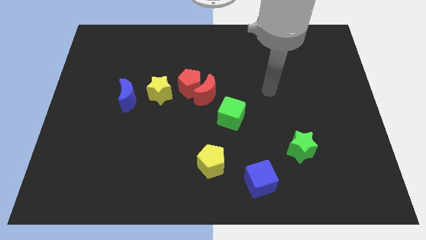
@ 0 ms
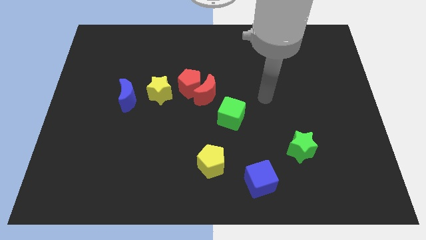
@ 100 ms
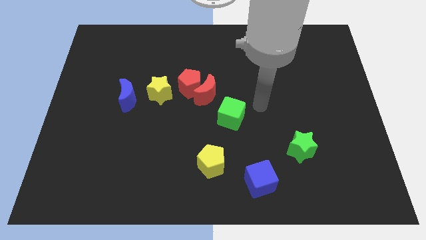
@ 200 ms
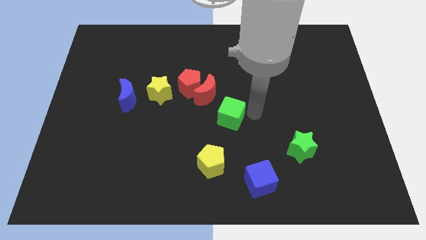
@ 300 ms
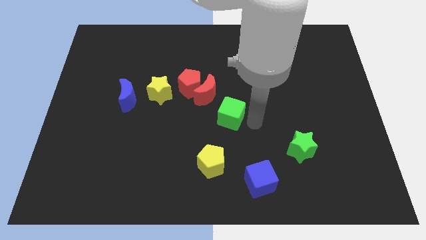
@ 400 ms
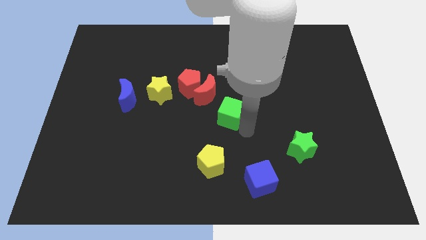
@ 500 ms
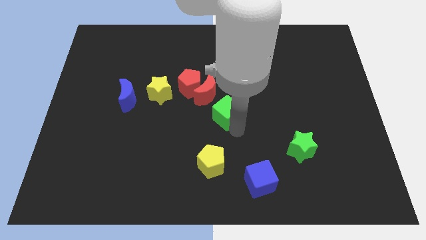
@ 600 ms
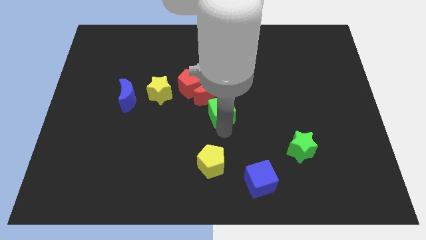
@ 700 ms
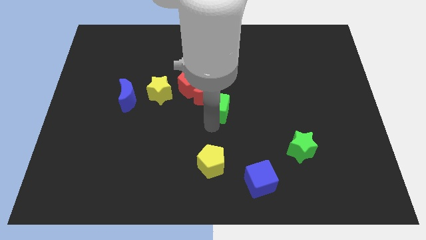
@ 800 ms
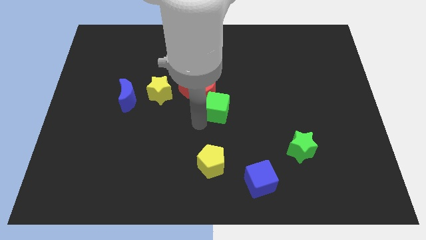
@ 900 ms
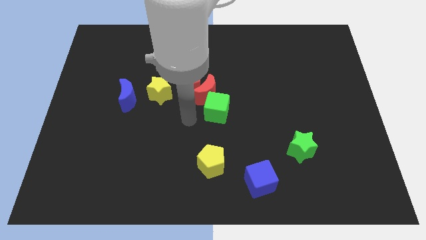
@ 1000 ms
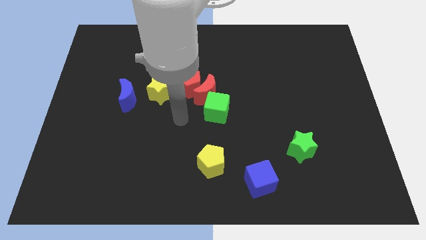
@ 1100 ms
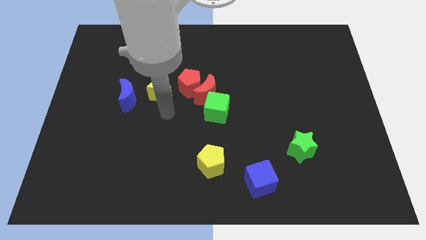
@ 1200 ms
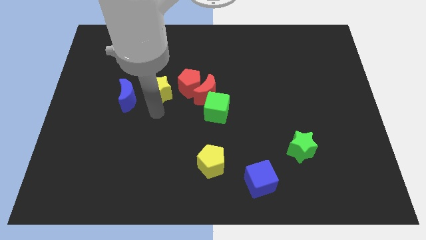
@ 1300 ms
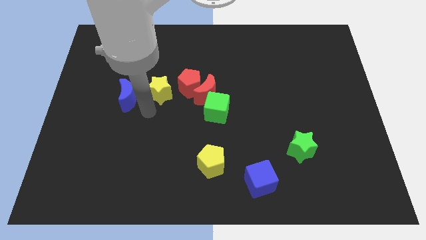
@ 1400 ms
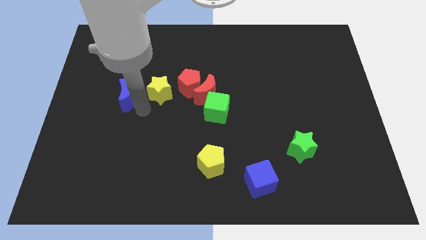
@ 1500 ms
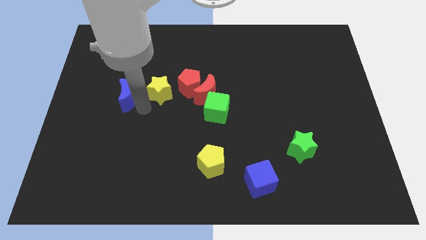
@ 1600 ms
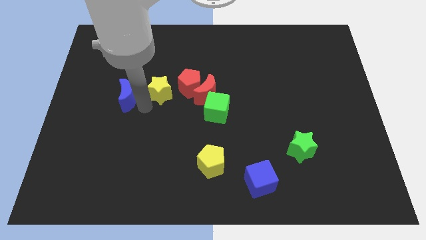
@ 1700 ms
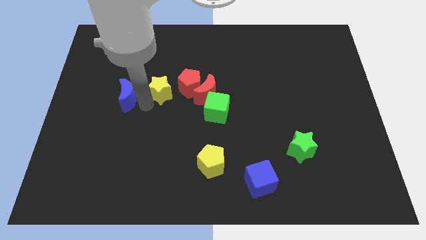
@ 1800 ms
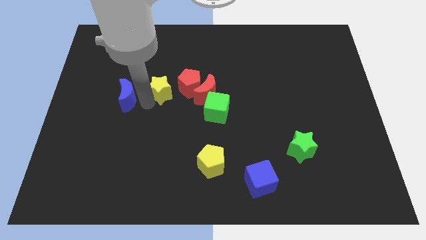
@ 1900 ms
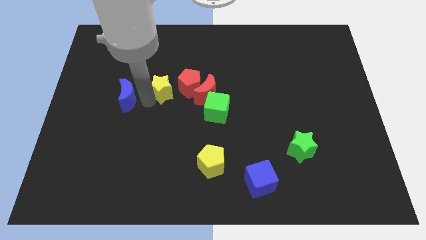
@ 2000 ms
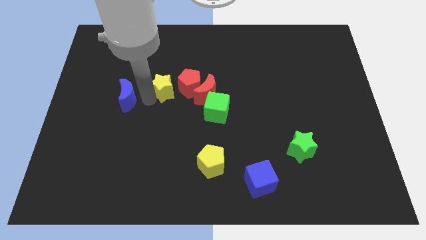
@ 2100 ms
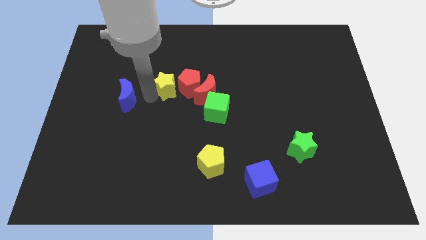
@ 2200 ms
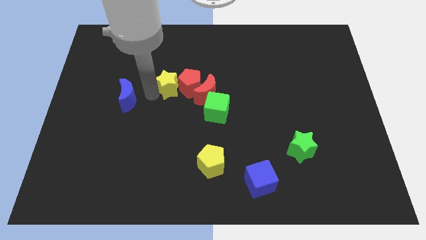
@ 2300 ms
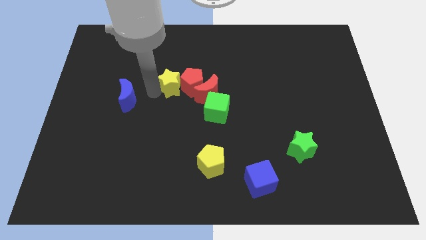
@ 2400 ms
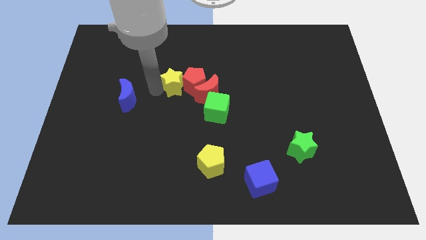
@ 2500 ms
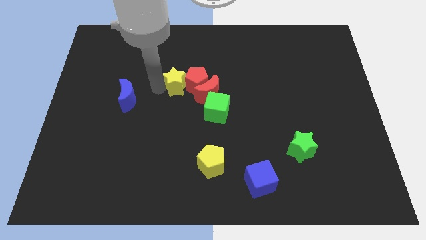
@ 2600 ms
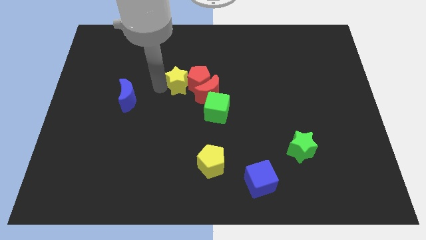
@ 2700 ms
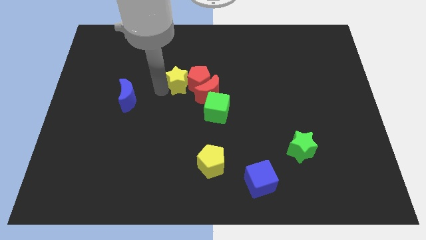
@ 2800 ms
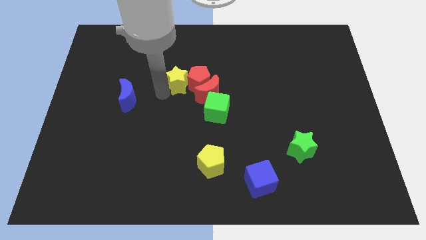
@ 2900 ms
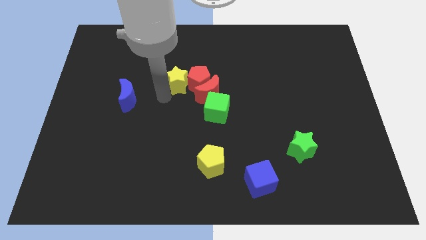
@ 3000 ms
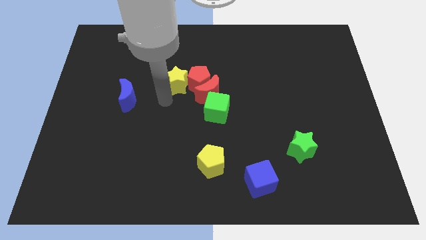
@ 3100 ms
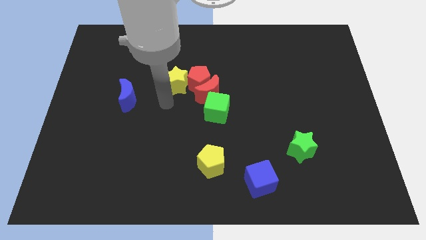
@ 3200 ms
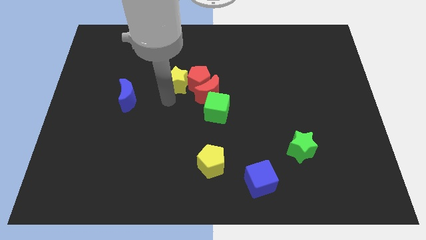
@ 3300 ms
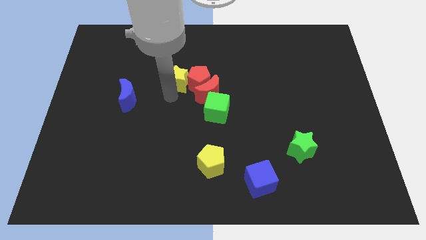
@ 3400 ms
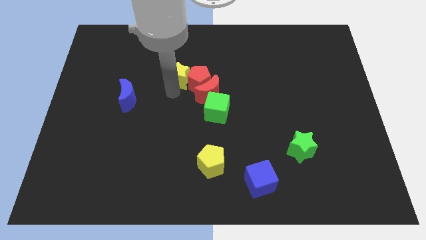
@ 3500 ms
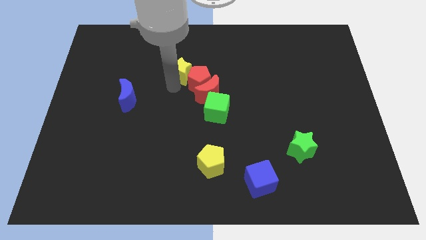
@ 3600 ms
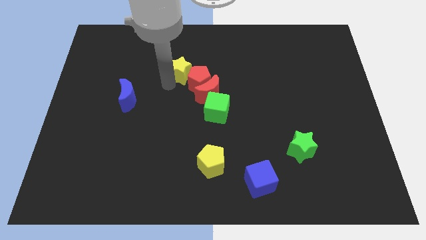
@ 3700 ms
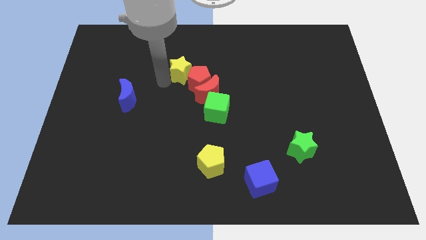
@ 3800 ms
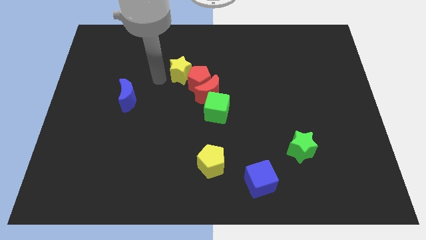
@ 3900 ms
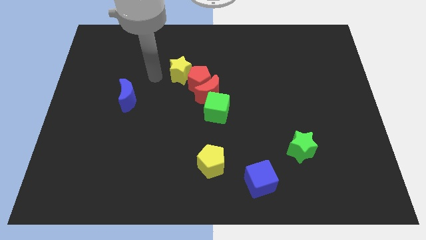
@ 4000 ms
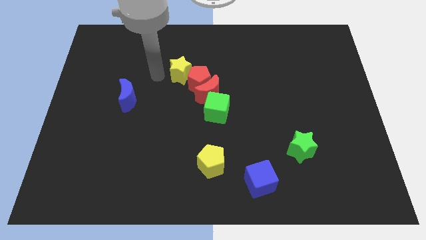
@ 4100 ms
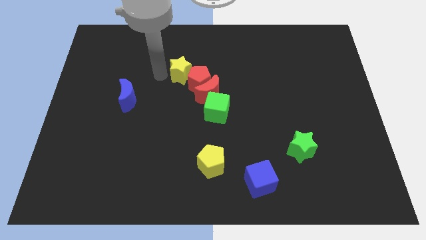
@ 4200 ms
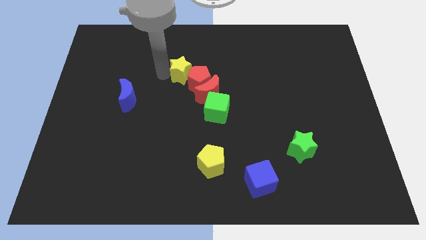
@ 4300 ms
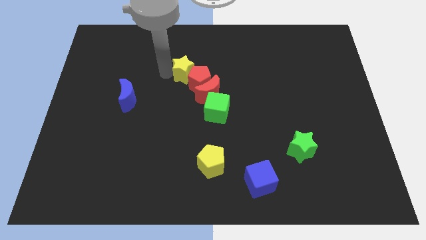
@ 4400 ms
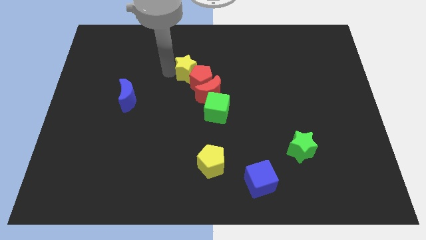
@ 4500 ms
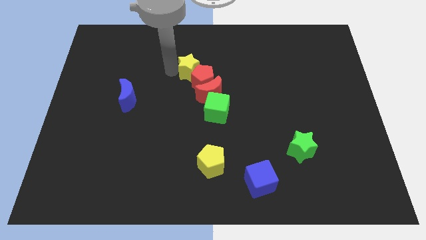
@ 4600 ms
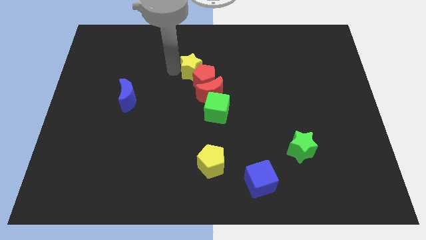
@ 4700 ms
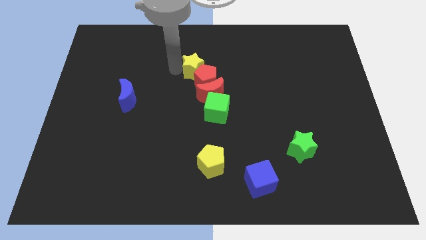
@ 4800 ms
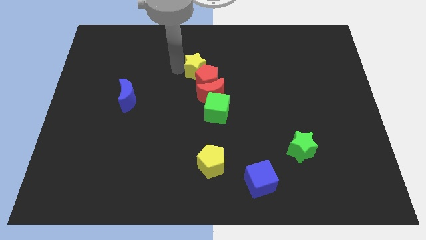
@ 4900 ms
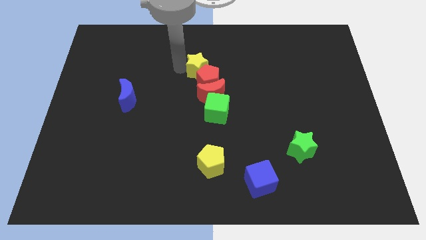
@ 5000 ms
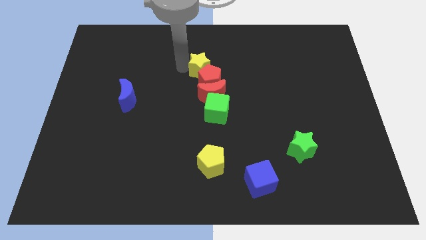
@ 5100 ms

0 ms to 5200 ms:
push the yellow star to the top of the green cube

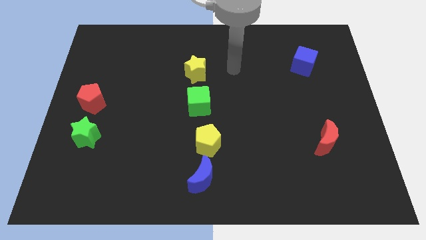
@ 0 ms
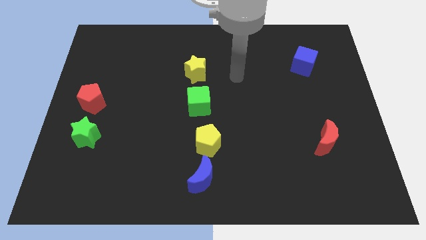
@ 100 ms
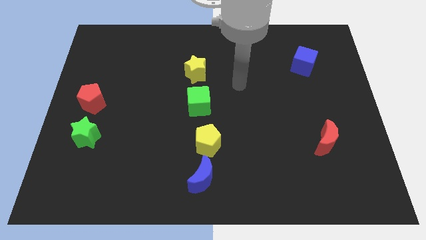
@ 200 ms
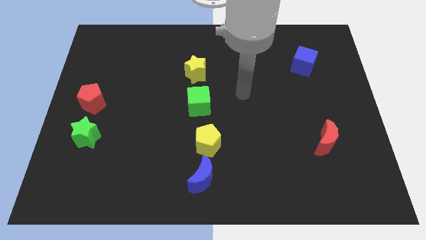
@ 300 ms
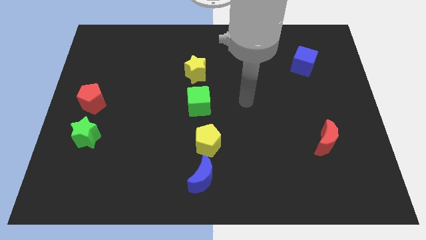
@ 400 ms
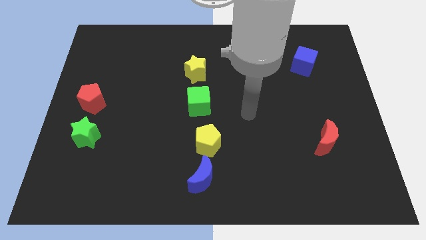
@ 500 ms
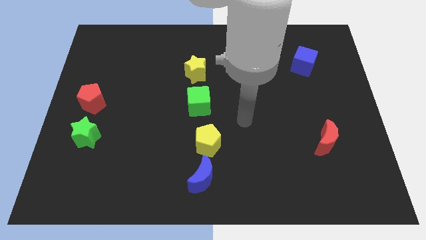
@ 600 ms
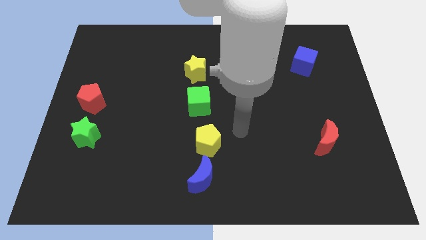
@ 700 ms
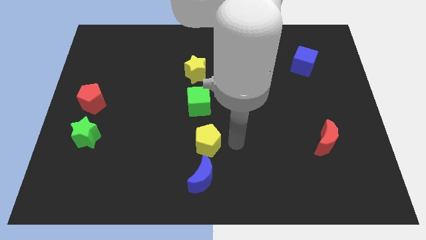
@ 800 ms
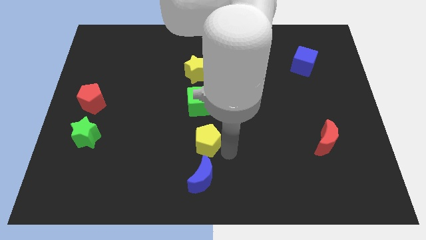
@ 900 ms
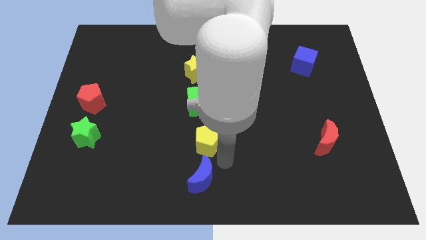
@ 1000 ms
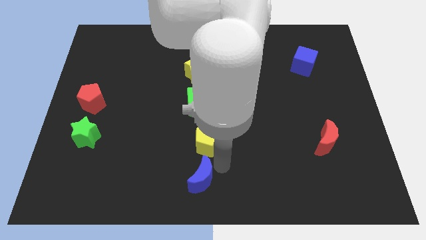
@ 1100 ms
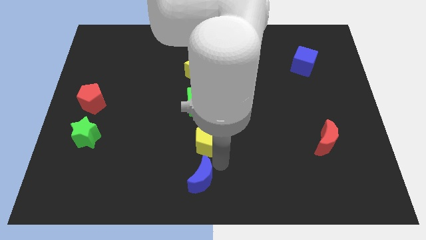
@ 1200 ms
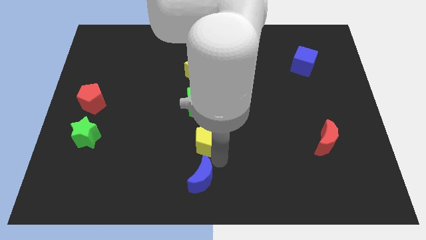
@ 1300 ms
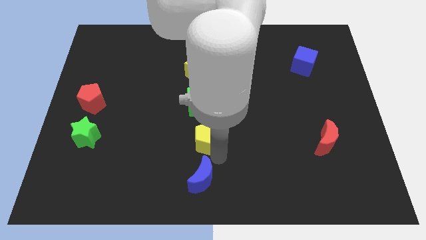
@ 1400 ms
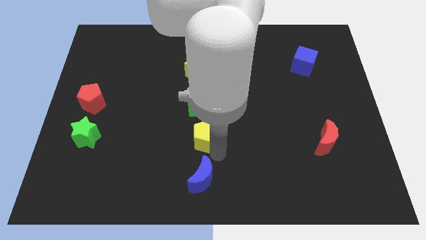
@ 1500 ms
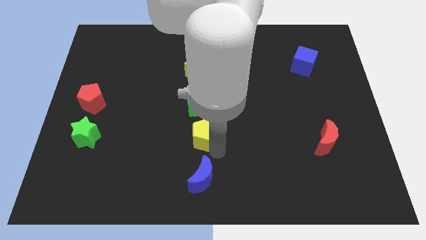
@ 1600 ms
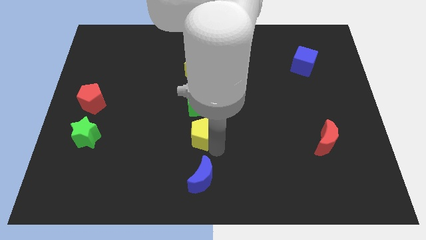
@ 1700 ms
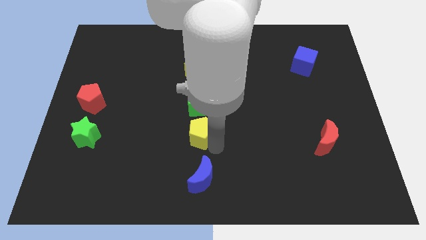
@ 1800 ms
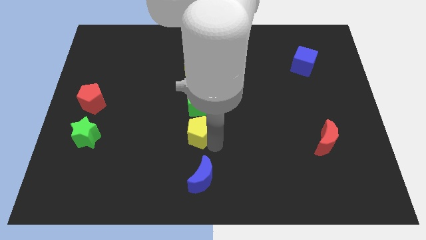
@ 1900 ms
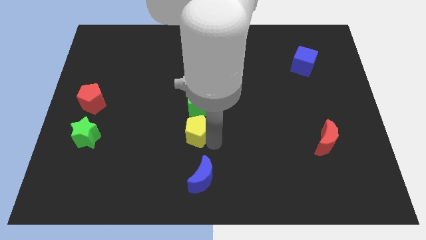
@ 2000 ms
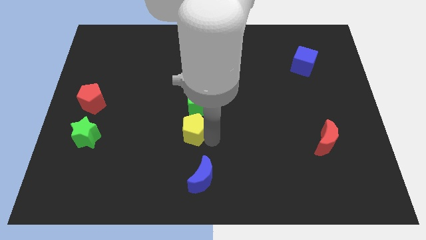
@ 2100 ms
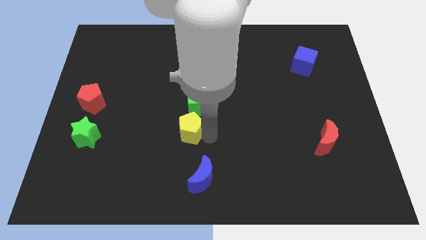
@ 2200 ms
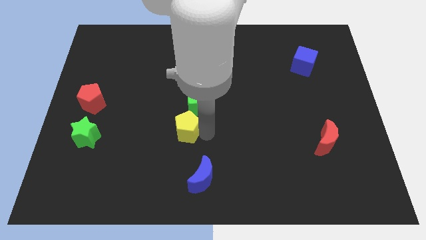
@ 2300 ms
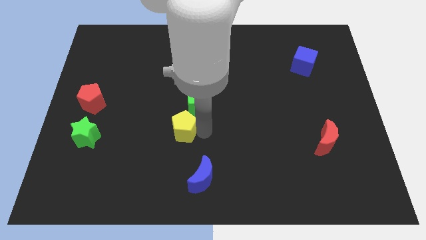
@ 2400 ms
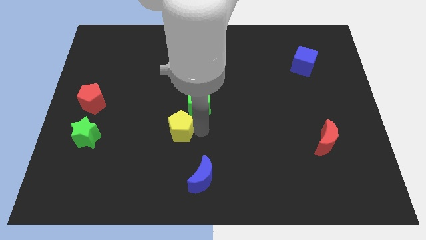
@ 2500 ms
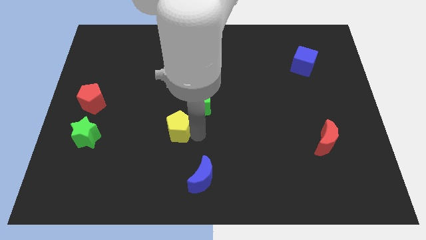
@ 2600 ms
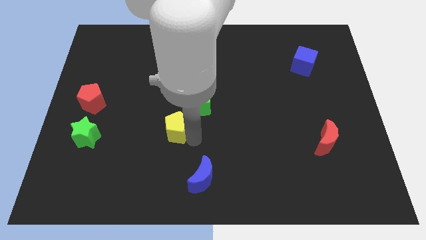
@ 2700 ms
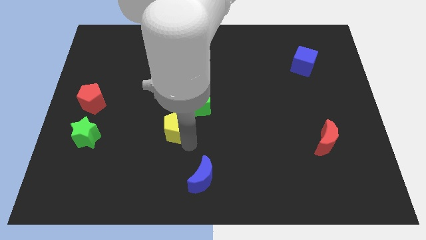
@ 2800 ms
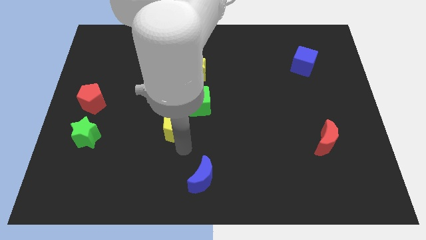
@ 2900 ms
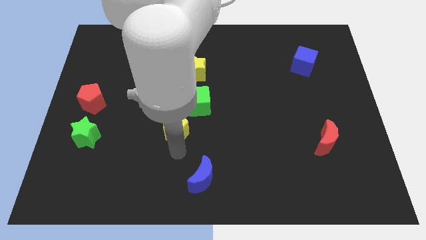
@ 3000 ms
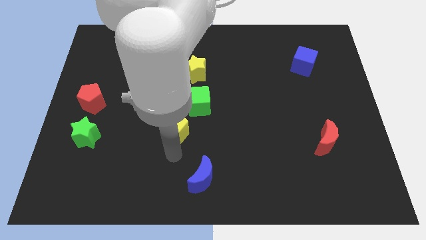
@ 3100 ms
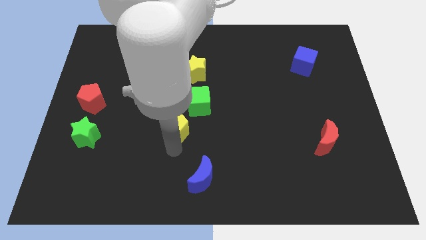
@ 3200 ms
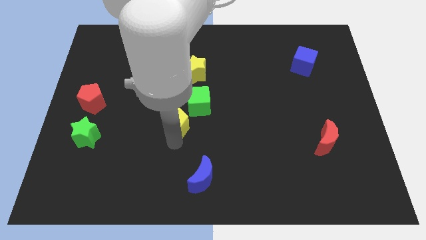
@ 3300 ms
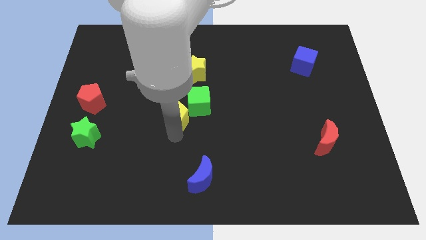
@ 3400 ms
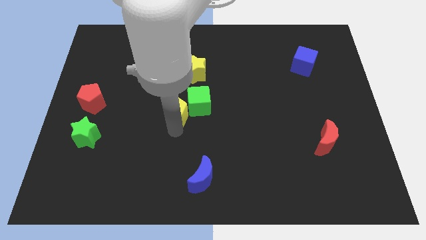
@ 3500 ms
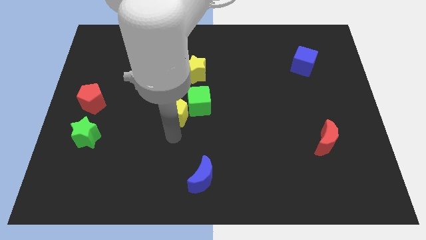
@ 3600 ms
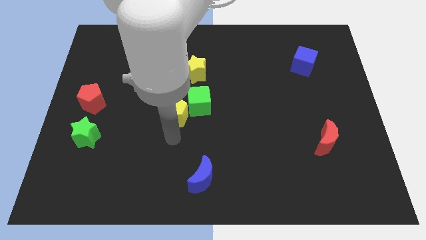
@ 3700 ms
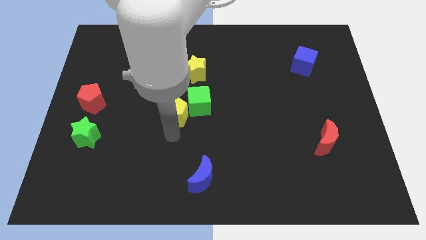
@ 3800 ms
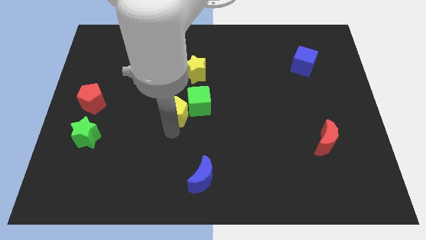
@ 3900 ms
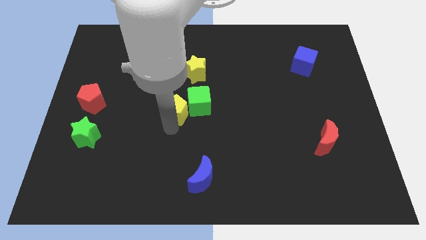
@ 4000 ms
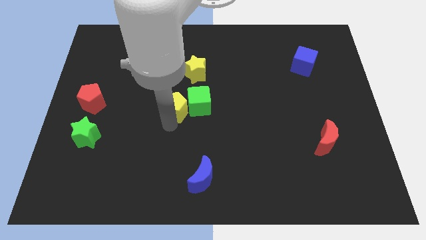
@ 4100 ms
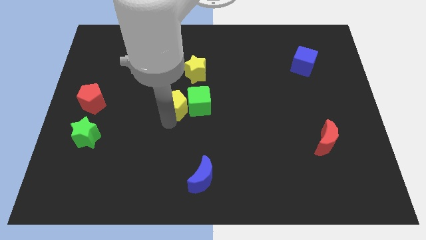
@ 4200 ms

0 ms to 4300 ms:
slide the yellow pentagon to the top left side of the green cube
